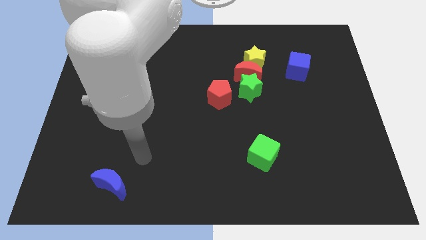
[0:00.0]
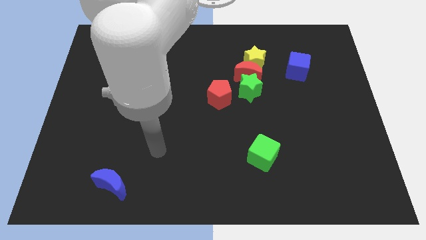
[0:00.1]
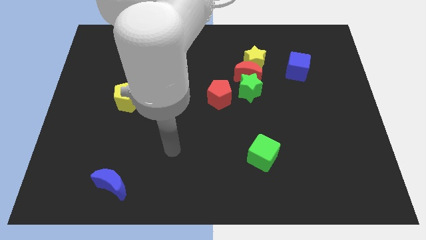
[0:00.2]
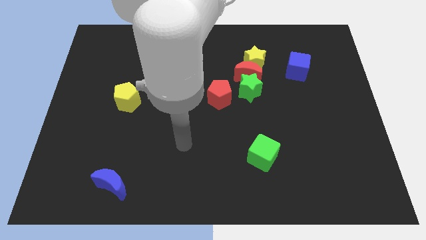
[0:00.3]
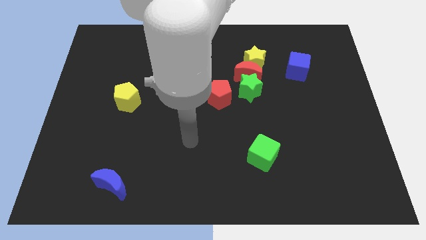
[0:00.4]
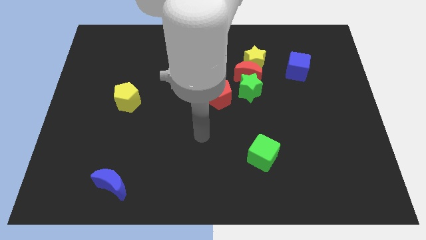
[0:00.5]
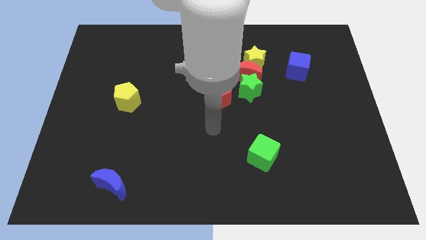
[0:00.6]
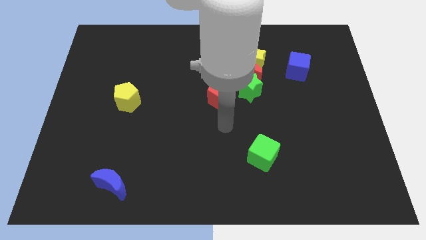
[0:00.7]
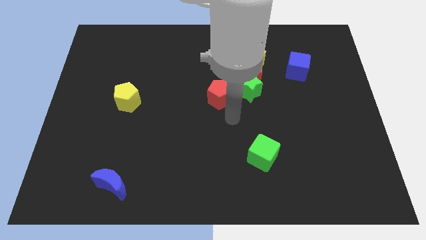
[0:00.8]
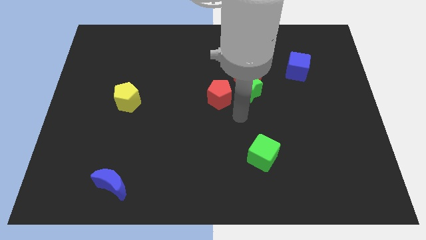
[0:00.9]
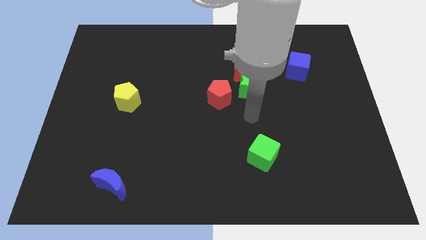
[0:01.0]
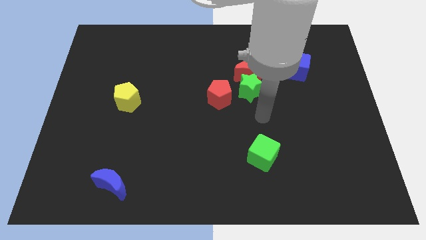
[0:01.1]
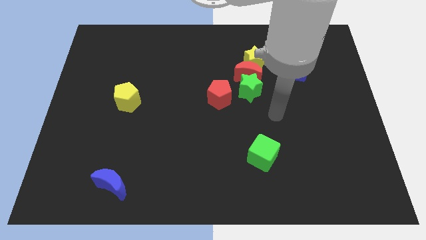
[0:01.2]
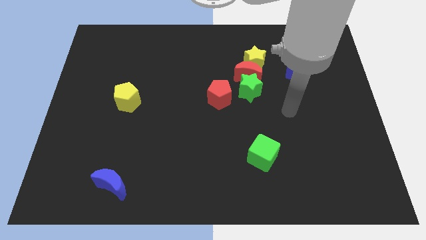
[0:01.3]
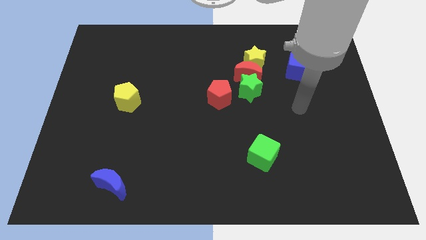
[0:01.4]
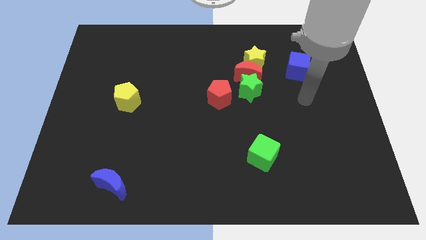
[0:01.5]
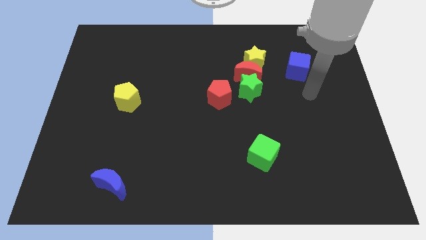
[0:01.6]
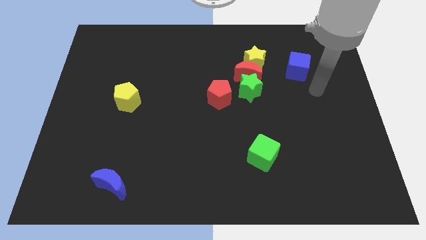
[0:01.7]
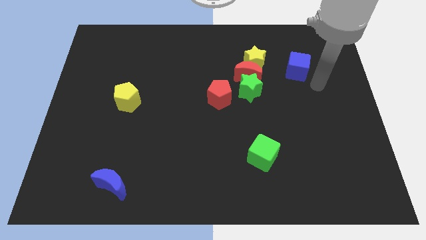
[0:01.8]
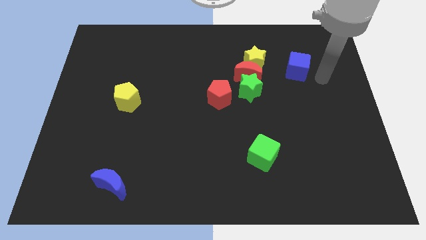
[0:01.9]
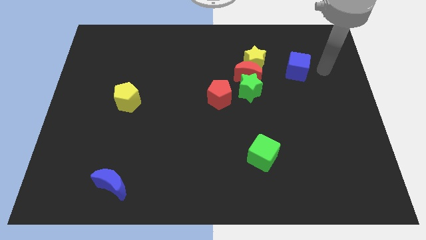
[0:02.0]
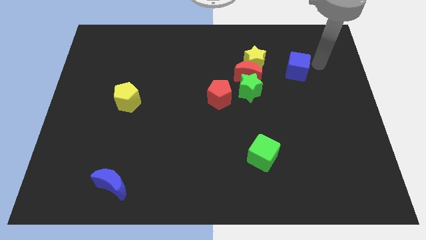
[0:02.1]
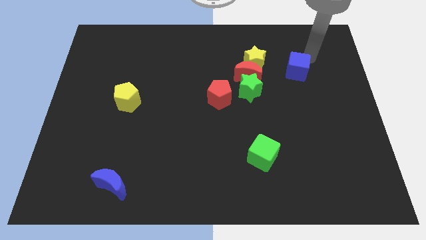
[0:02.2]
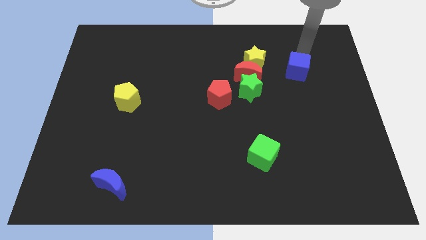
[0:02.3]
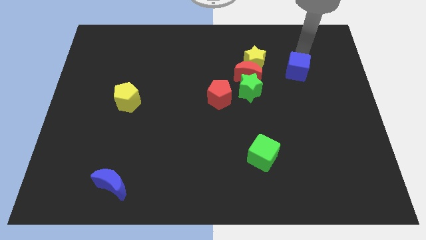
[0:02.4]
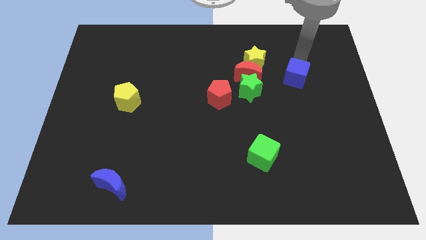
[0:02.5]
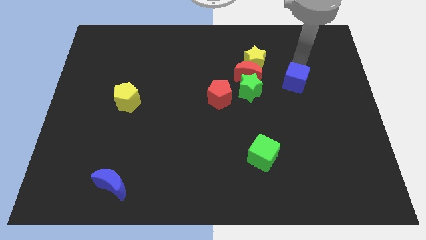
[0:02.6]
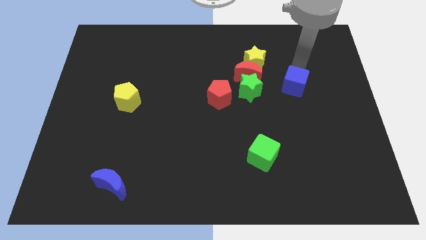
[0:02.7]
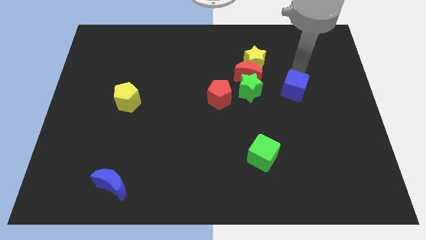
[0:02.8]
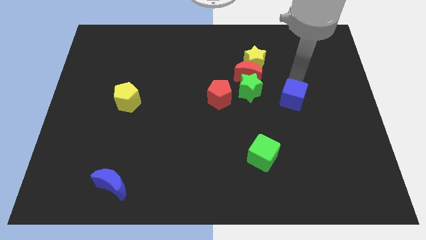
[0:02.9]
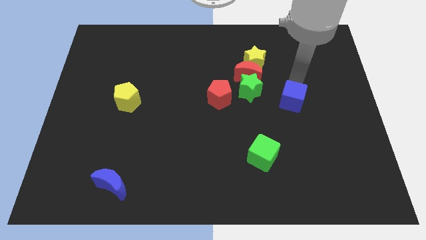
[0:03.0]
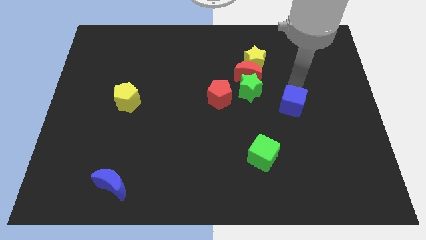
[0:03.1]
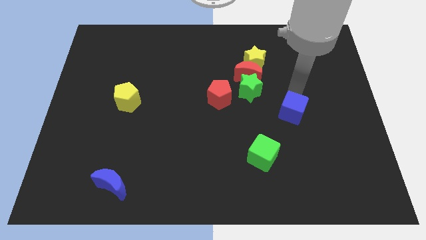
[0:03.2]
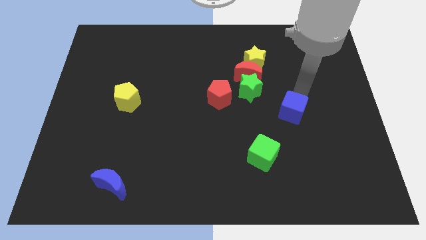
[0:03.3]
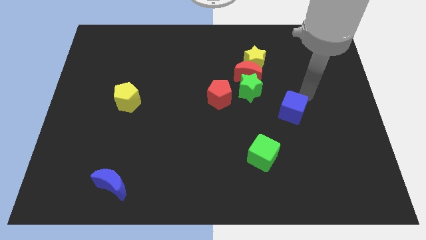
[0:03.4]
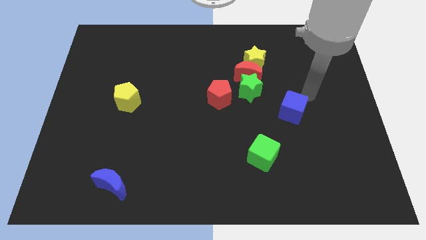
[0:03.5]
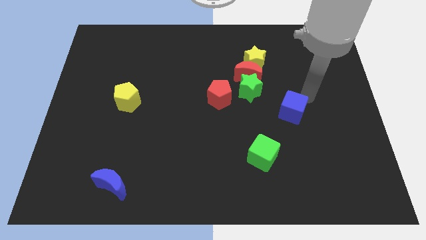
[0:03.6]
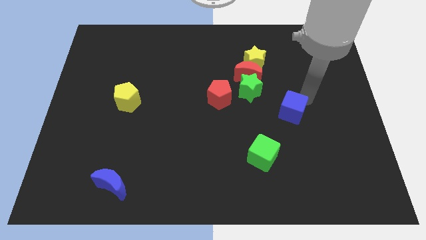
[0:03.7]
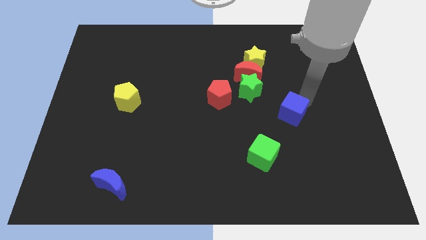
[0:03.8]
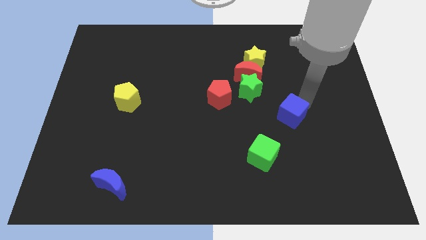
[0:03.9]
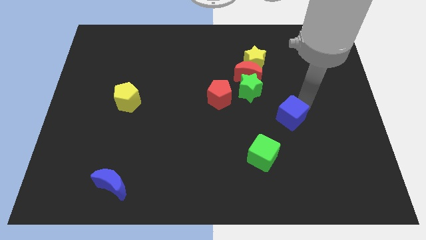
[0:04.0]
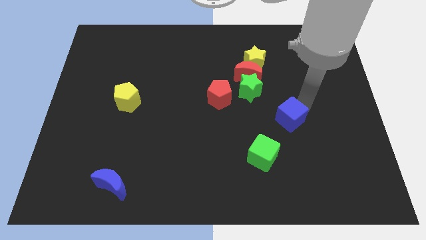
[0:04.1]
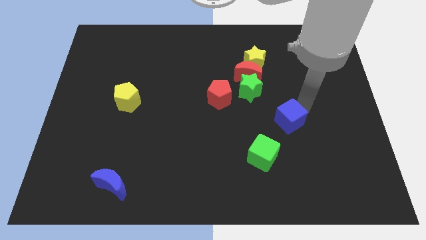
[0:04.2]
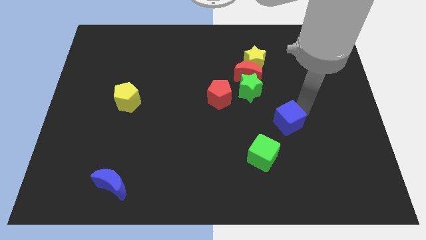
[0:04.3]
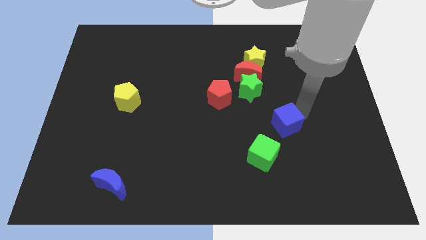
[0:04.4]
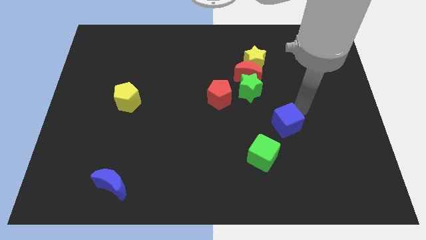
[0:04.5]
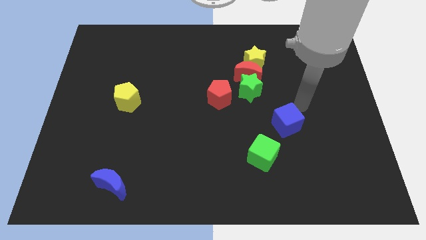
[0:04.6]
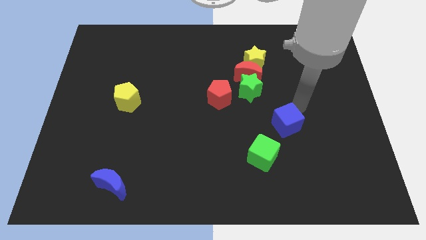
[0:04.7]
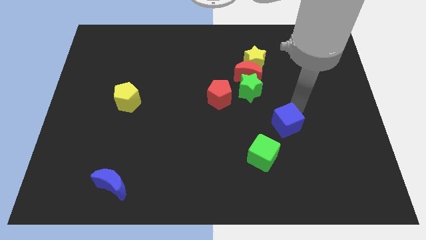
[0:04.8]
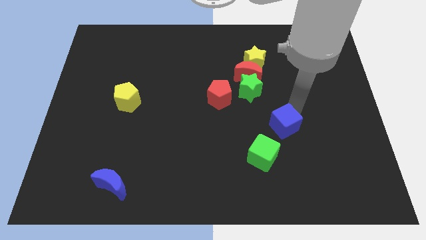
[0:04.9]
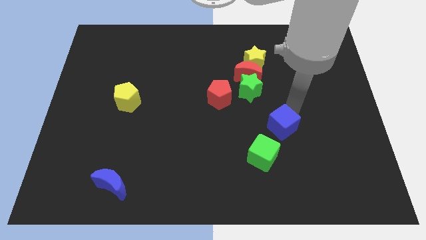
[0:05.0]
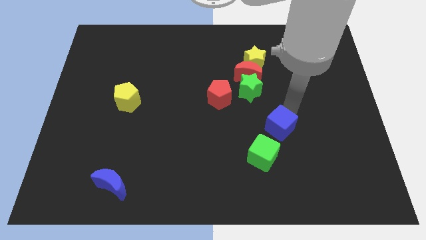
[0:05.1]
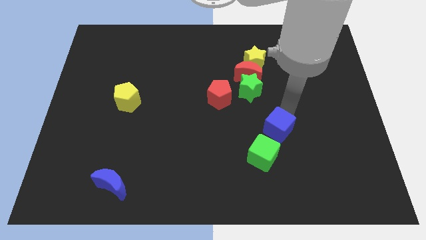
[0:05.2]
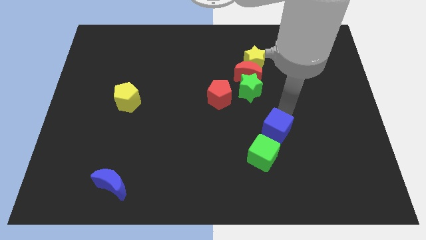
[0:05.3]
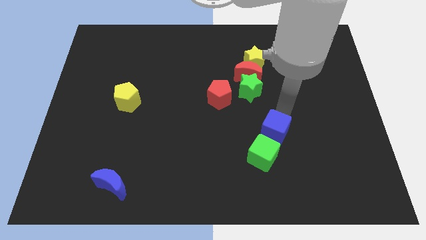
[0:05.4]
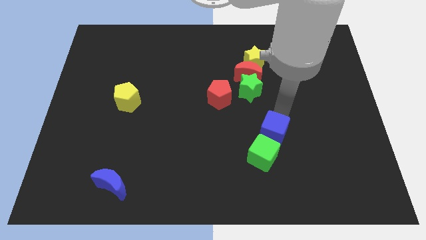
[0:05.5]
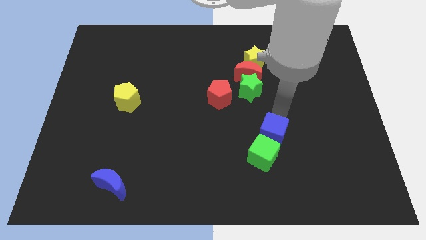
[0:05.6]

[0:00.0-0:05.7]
put the blue cube to the green cube
